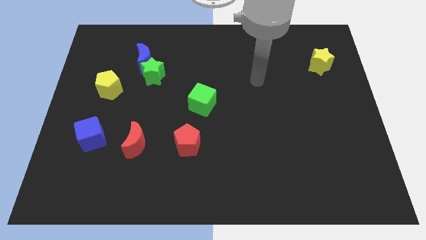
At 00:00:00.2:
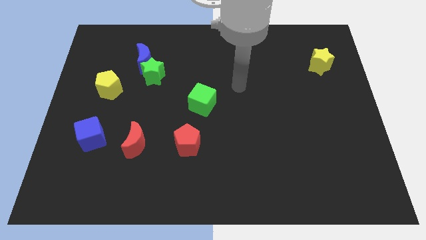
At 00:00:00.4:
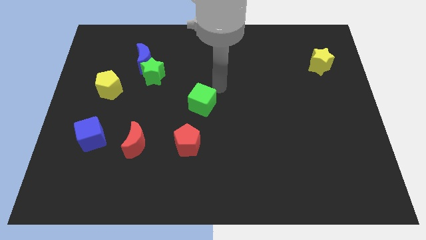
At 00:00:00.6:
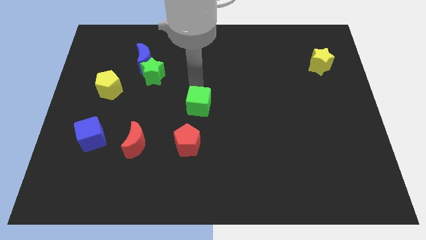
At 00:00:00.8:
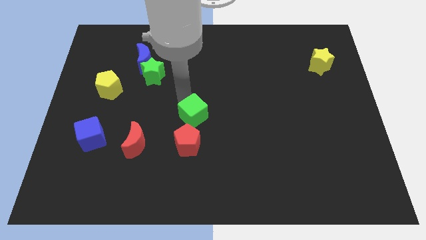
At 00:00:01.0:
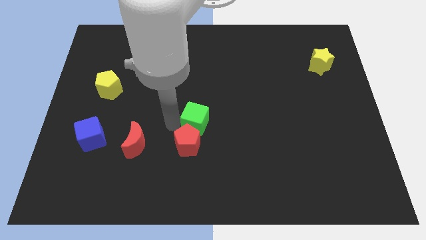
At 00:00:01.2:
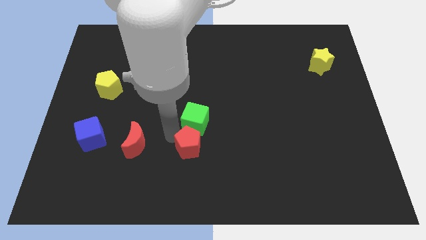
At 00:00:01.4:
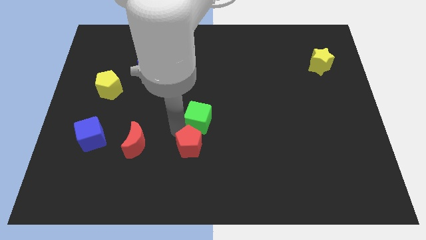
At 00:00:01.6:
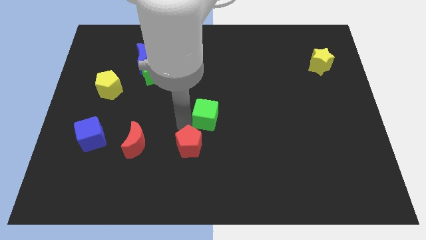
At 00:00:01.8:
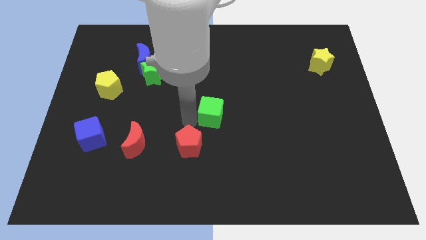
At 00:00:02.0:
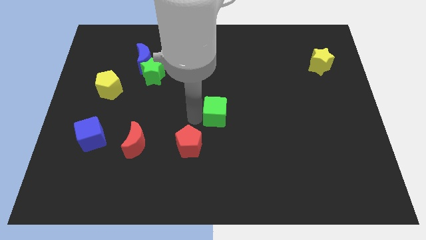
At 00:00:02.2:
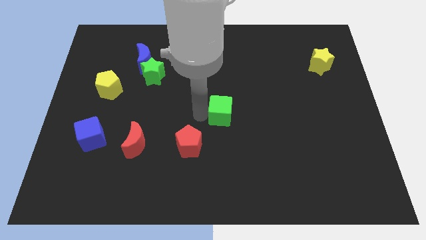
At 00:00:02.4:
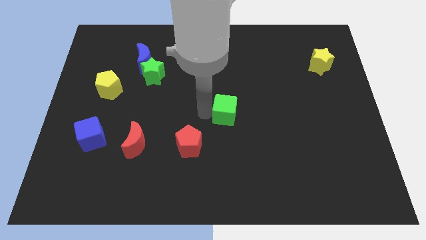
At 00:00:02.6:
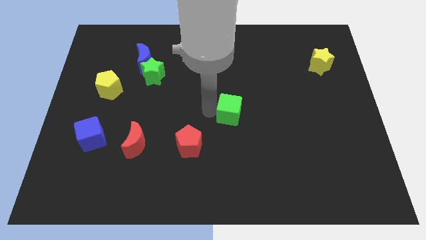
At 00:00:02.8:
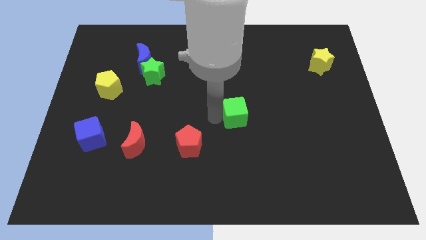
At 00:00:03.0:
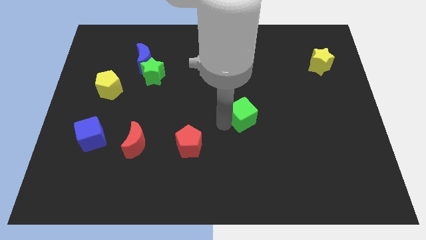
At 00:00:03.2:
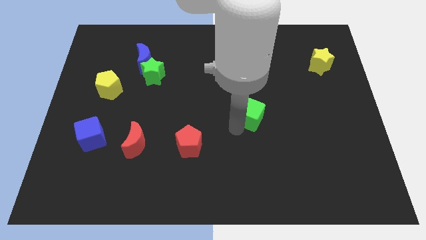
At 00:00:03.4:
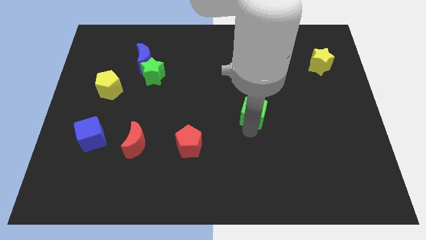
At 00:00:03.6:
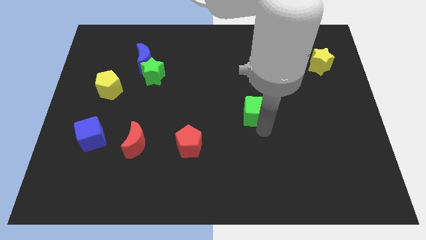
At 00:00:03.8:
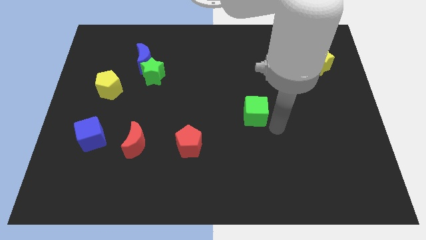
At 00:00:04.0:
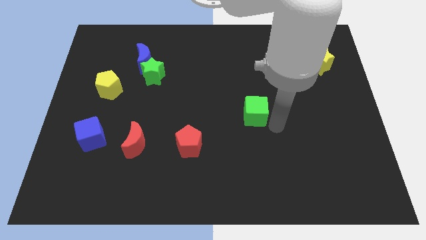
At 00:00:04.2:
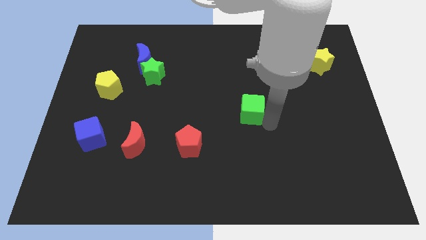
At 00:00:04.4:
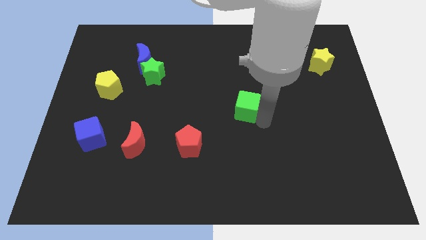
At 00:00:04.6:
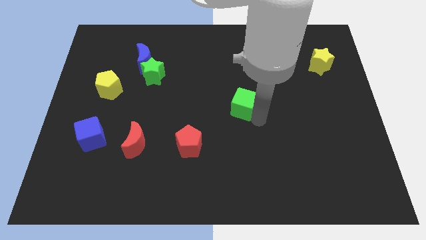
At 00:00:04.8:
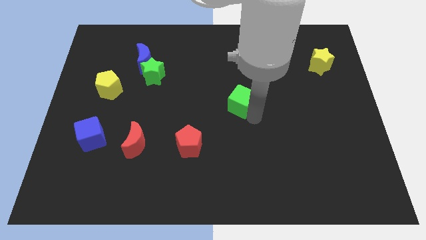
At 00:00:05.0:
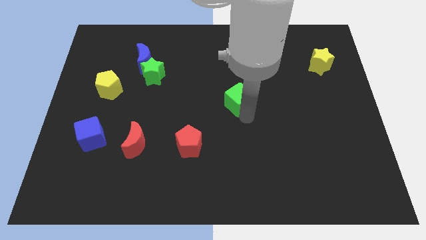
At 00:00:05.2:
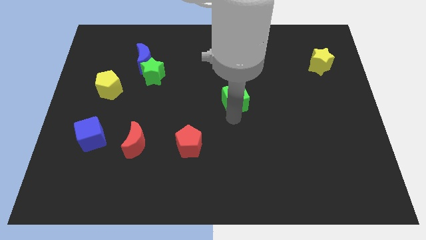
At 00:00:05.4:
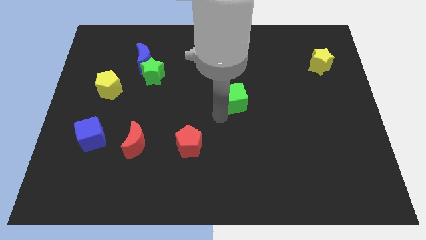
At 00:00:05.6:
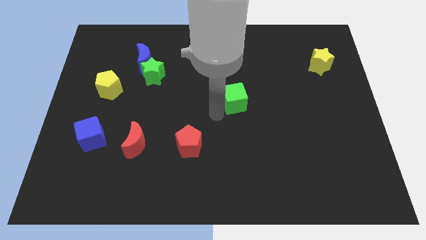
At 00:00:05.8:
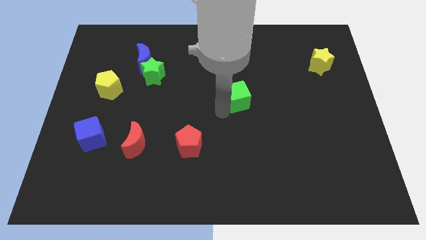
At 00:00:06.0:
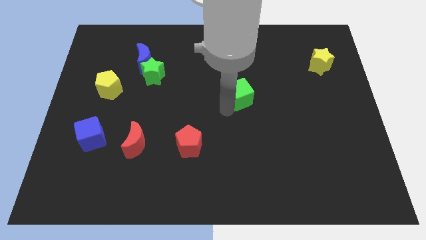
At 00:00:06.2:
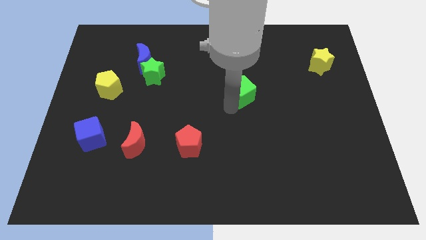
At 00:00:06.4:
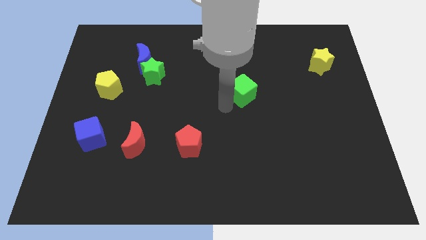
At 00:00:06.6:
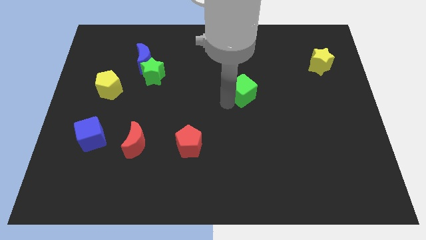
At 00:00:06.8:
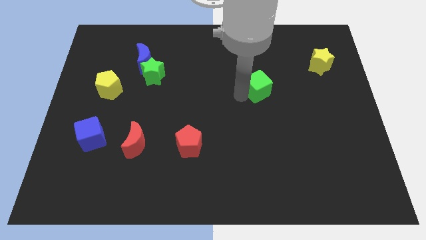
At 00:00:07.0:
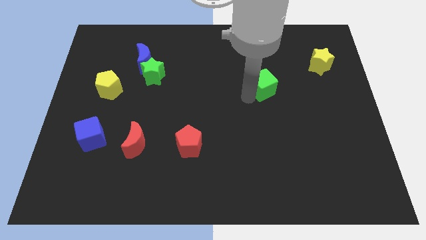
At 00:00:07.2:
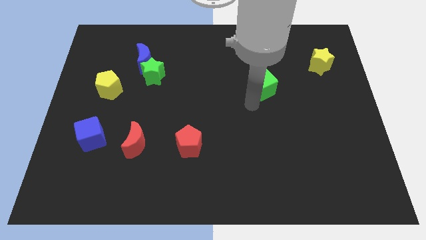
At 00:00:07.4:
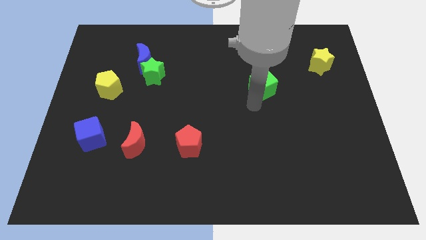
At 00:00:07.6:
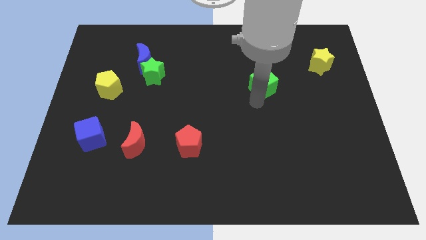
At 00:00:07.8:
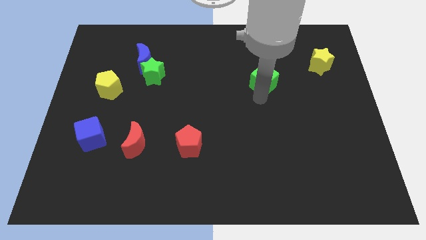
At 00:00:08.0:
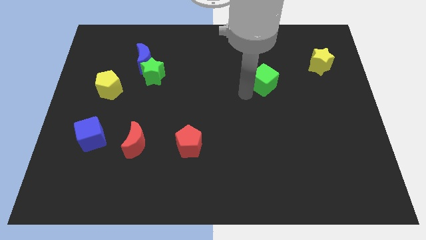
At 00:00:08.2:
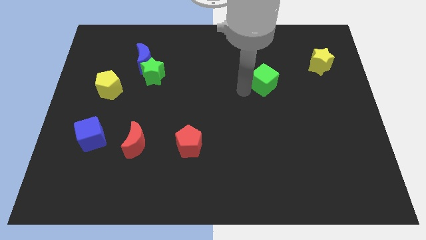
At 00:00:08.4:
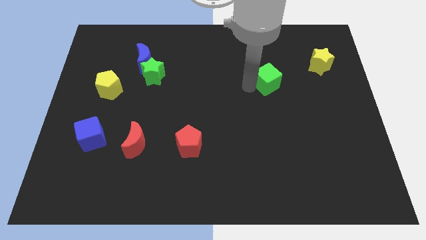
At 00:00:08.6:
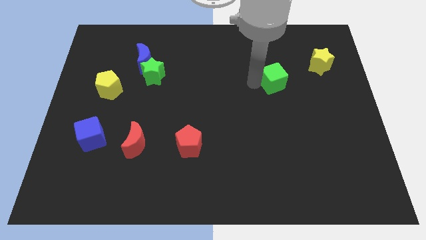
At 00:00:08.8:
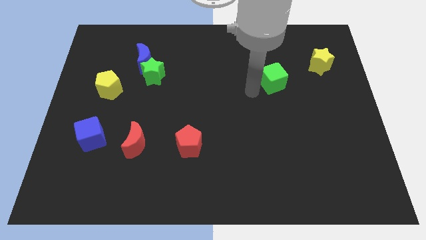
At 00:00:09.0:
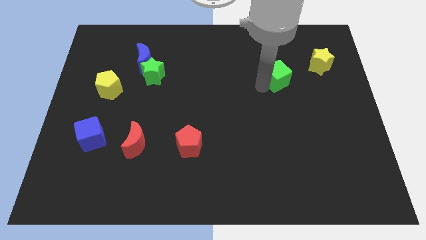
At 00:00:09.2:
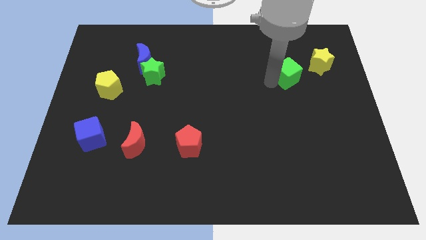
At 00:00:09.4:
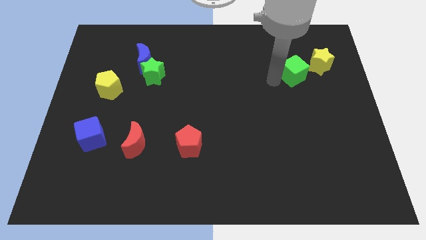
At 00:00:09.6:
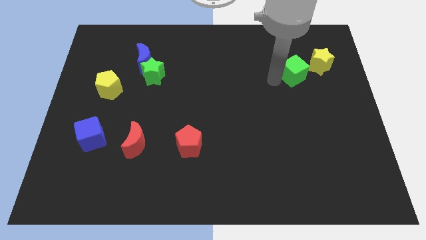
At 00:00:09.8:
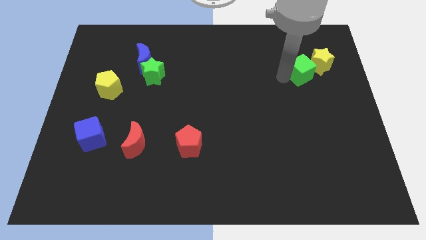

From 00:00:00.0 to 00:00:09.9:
slide the green cube next to the yellow star

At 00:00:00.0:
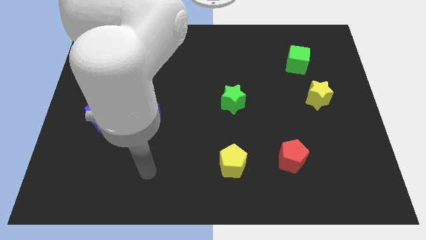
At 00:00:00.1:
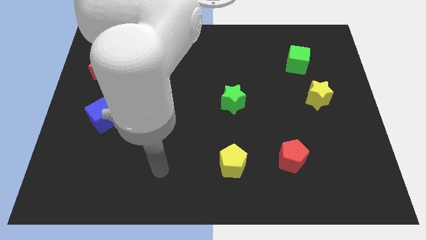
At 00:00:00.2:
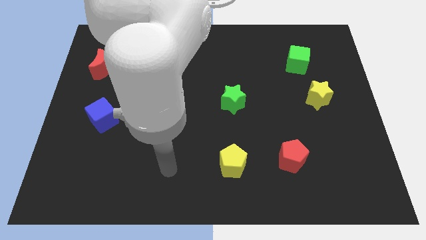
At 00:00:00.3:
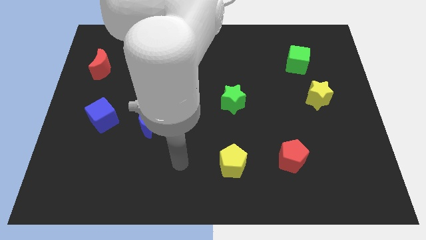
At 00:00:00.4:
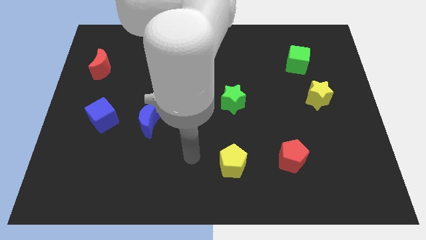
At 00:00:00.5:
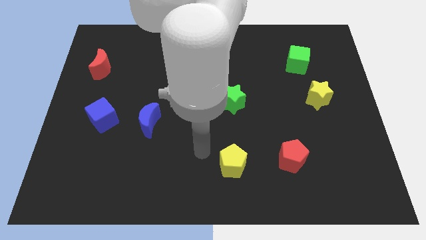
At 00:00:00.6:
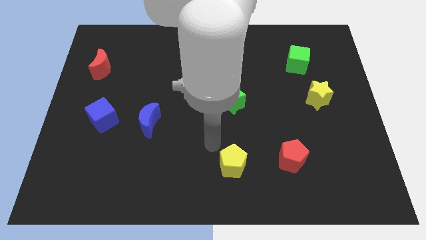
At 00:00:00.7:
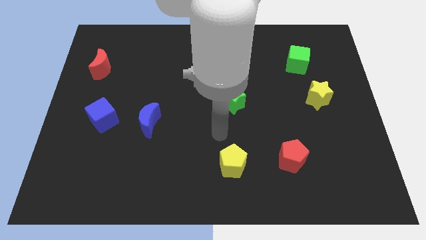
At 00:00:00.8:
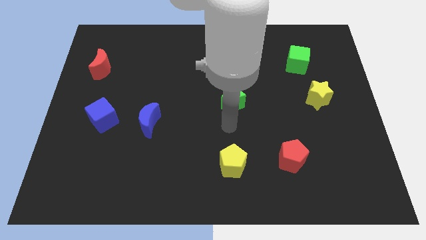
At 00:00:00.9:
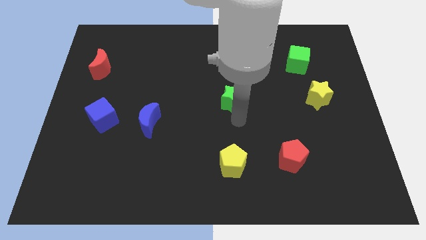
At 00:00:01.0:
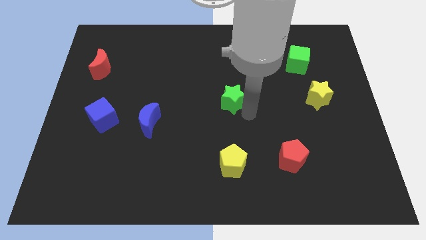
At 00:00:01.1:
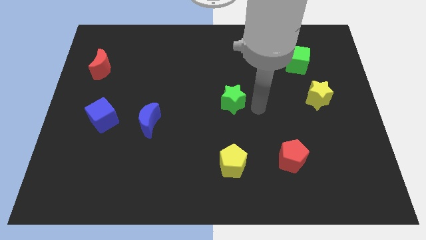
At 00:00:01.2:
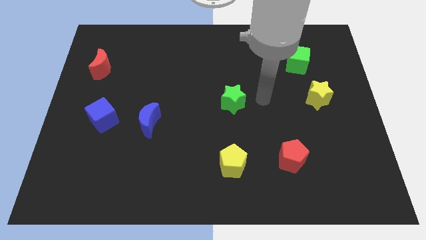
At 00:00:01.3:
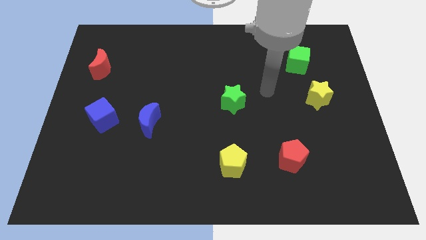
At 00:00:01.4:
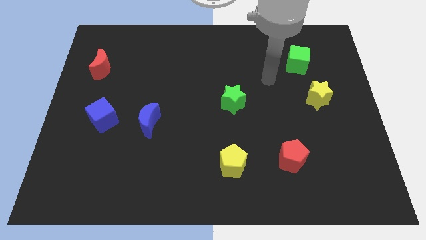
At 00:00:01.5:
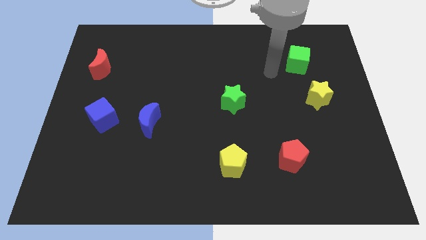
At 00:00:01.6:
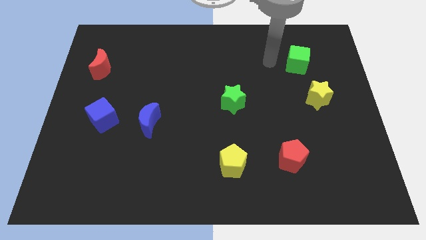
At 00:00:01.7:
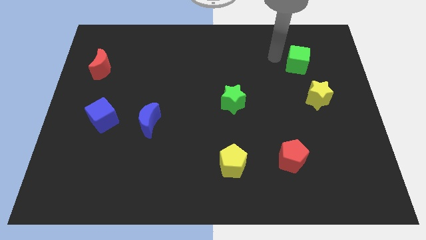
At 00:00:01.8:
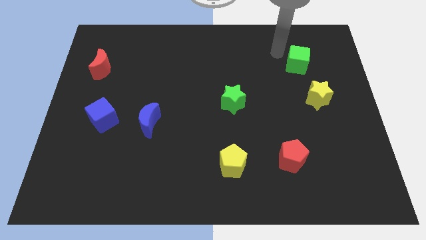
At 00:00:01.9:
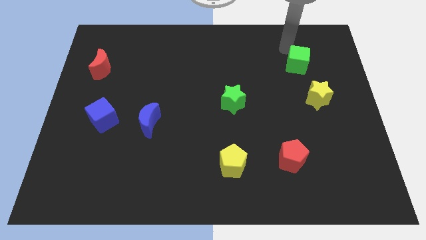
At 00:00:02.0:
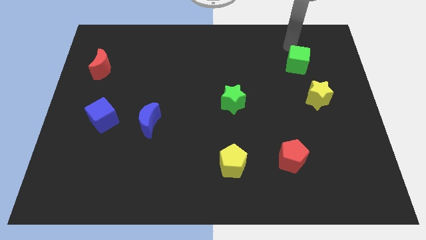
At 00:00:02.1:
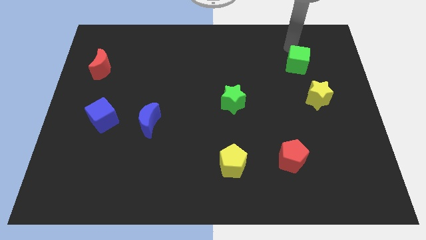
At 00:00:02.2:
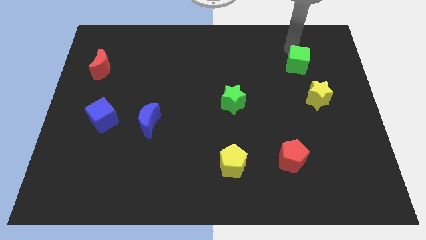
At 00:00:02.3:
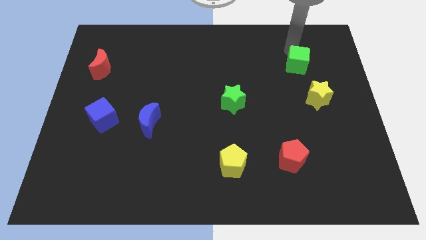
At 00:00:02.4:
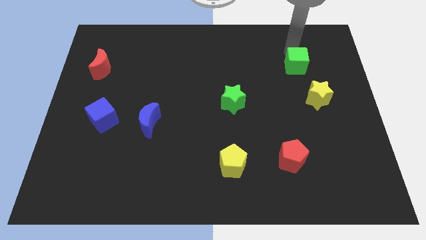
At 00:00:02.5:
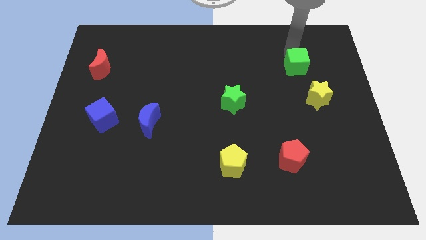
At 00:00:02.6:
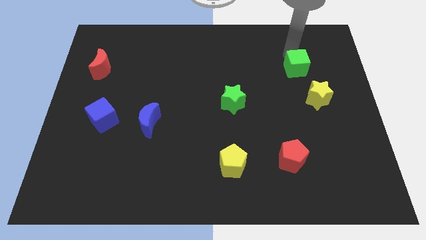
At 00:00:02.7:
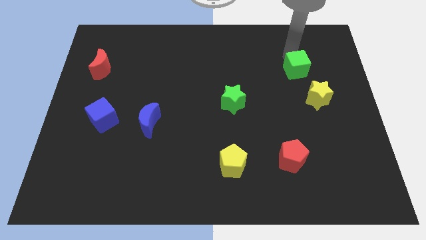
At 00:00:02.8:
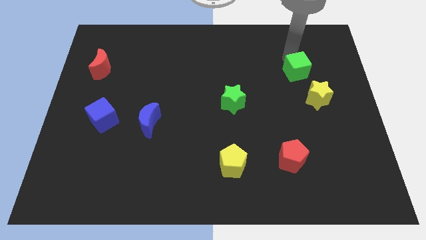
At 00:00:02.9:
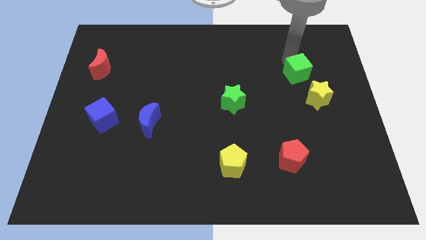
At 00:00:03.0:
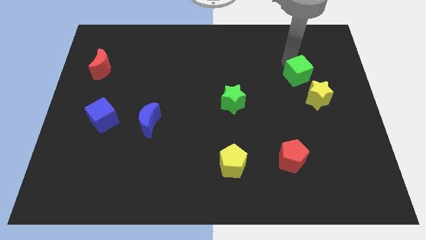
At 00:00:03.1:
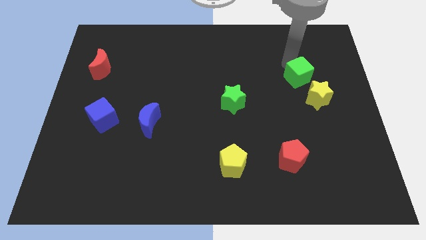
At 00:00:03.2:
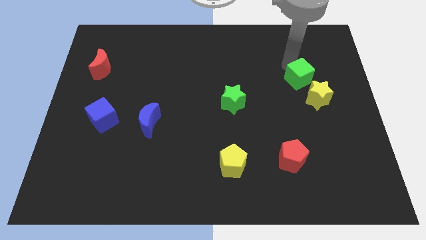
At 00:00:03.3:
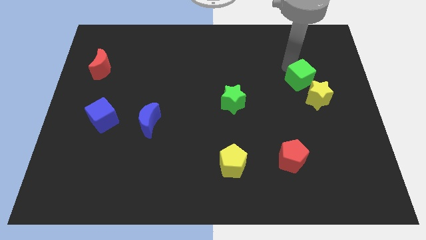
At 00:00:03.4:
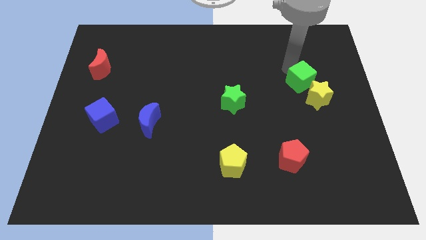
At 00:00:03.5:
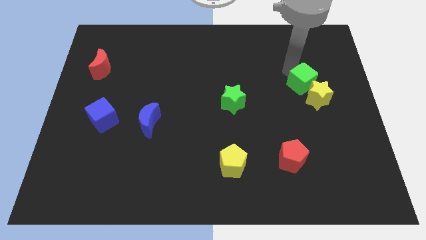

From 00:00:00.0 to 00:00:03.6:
push the green cube towards the yellow star
